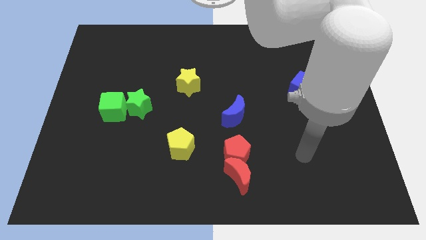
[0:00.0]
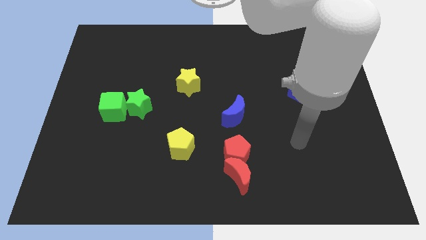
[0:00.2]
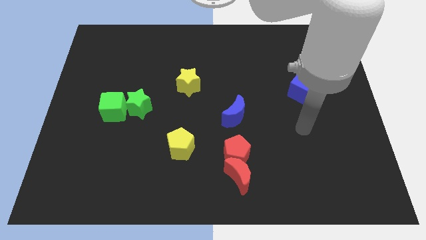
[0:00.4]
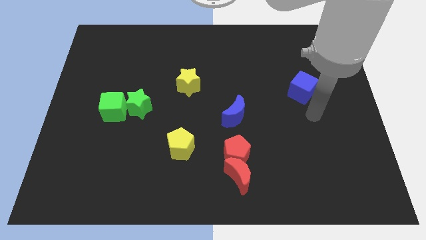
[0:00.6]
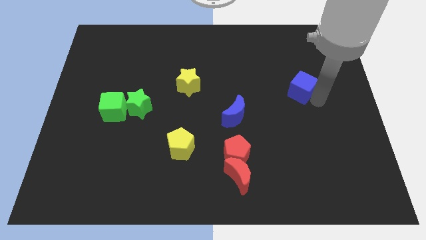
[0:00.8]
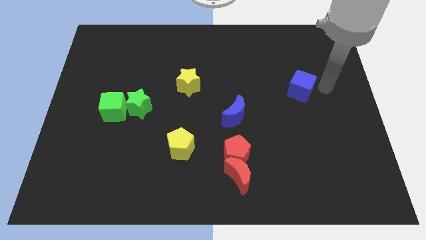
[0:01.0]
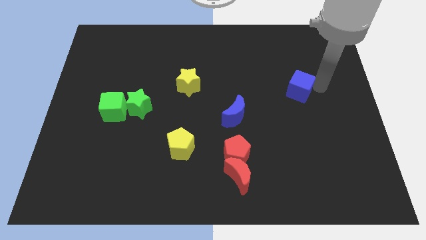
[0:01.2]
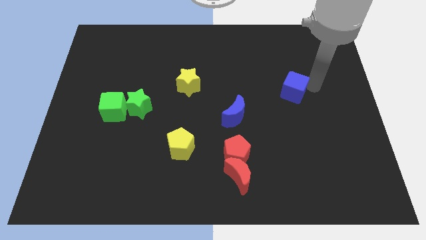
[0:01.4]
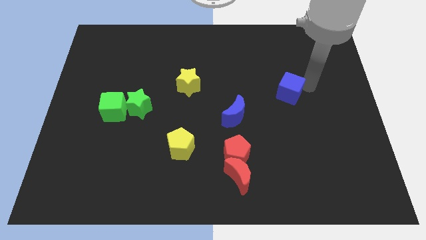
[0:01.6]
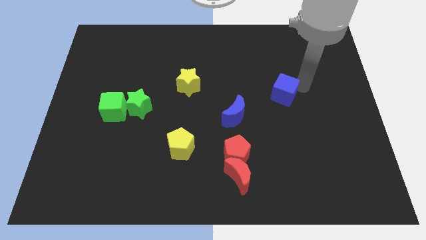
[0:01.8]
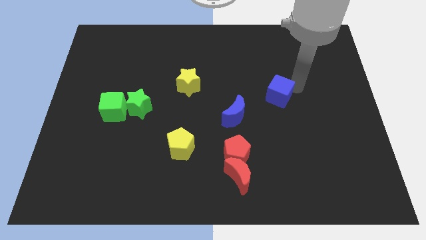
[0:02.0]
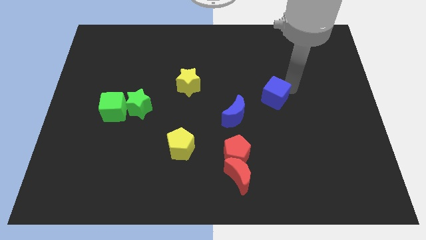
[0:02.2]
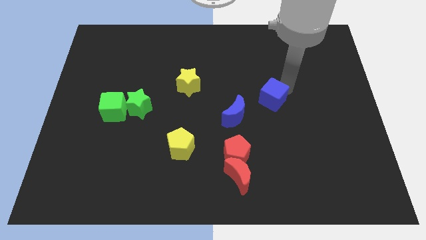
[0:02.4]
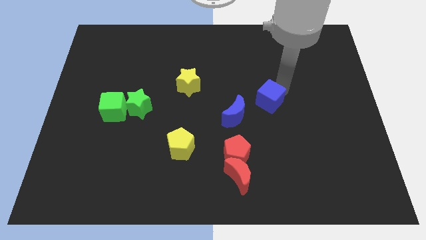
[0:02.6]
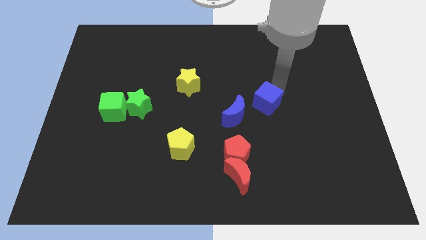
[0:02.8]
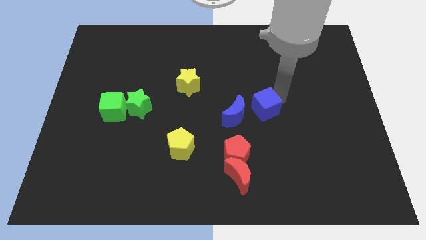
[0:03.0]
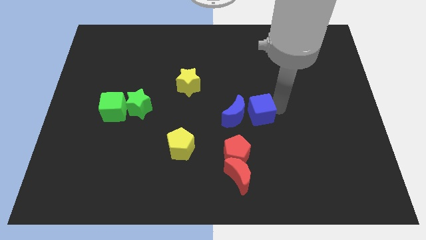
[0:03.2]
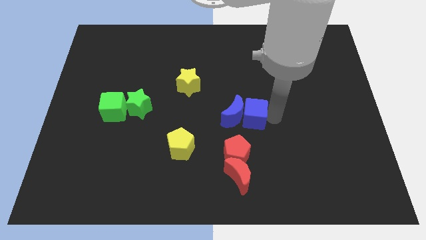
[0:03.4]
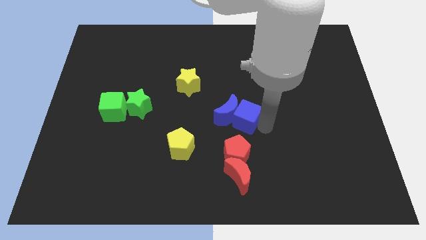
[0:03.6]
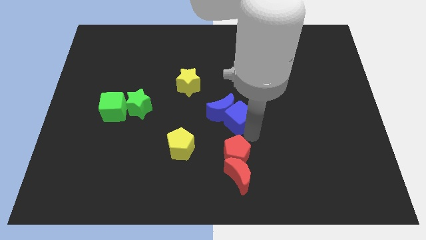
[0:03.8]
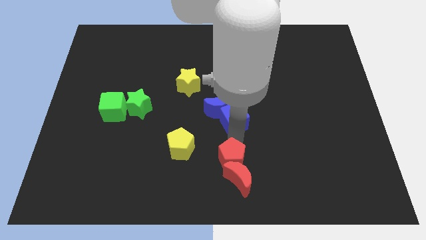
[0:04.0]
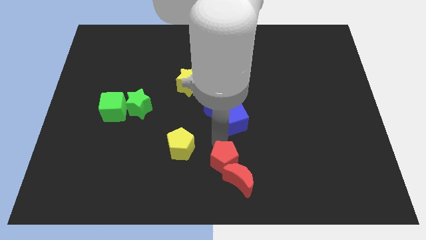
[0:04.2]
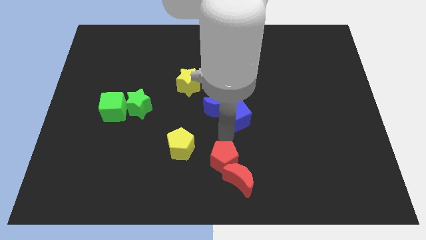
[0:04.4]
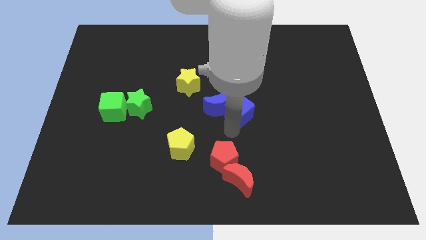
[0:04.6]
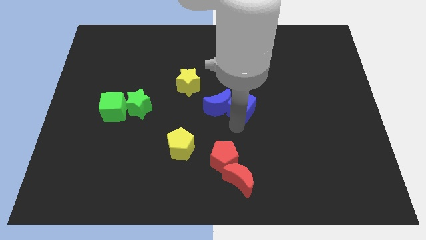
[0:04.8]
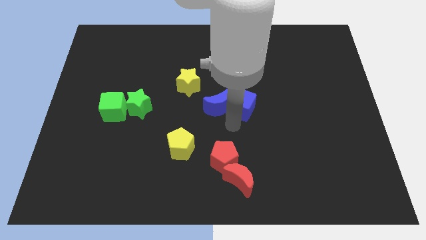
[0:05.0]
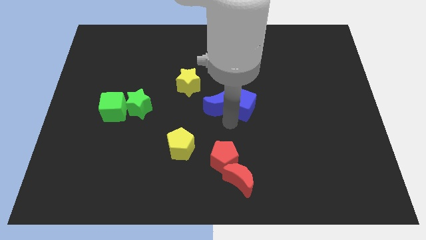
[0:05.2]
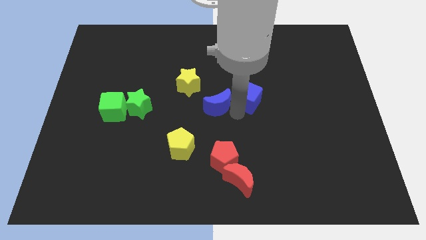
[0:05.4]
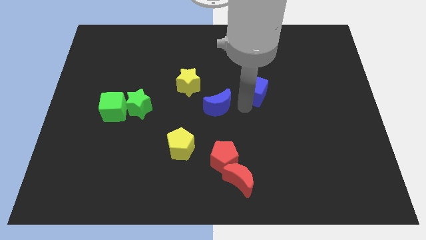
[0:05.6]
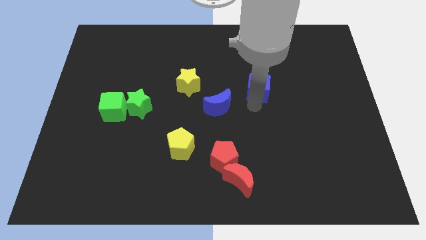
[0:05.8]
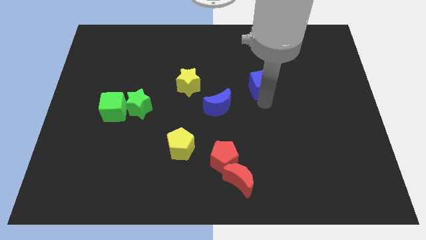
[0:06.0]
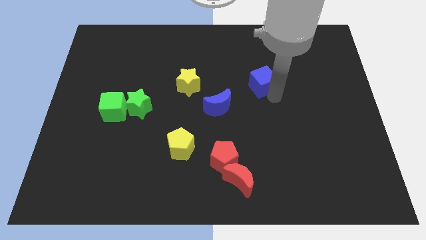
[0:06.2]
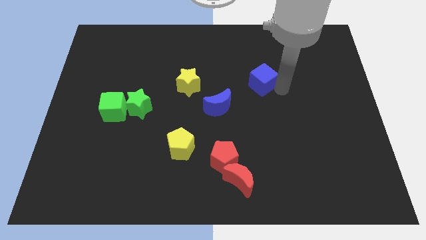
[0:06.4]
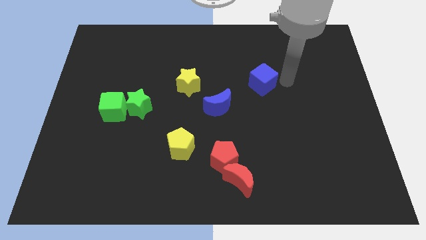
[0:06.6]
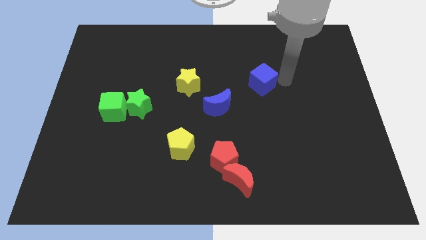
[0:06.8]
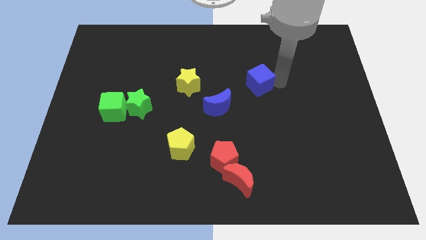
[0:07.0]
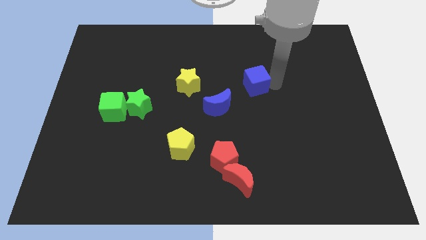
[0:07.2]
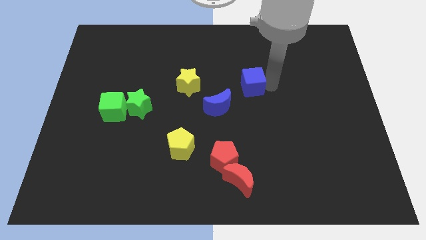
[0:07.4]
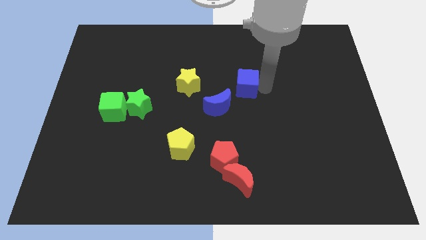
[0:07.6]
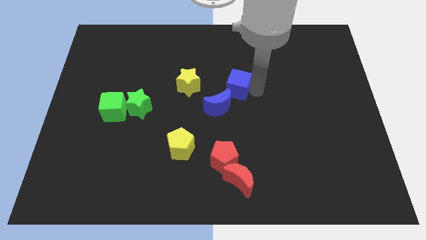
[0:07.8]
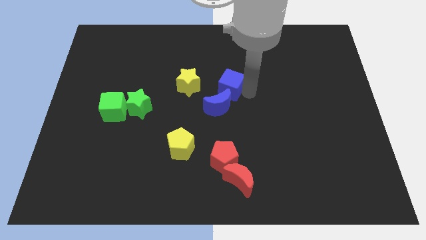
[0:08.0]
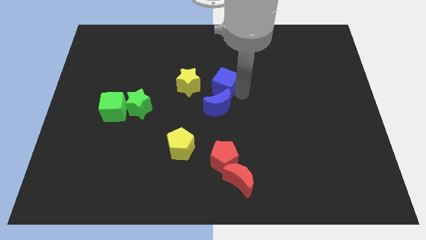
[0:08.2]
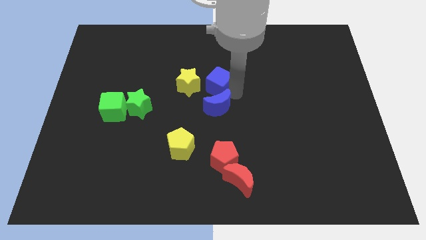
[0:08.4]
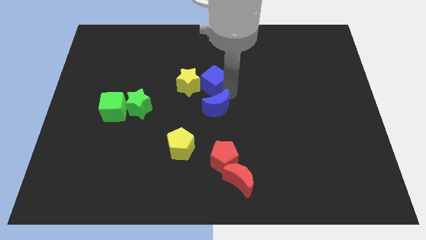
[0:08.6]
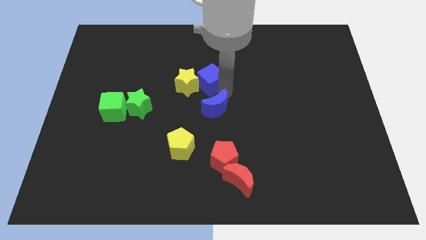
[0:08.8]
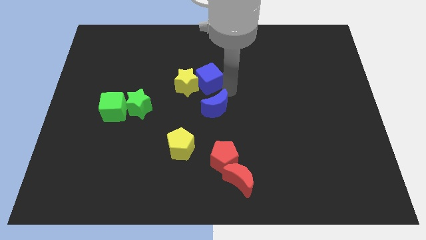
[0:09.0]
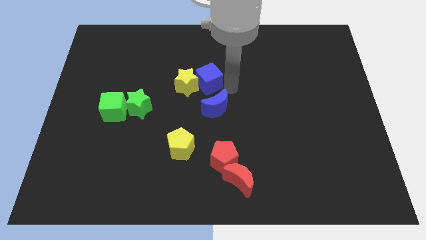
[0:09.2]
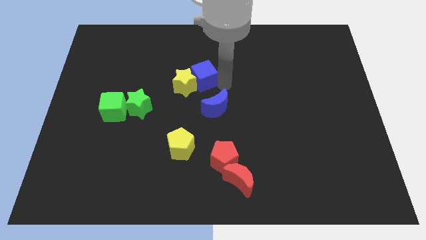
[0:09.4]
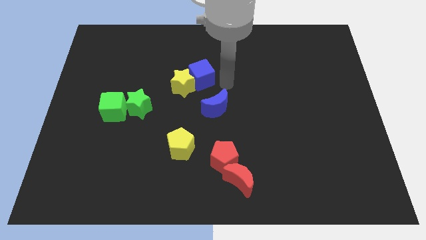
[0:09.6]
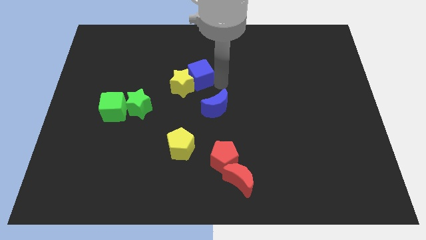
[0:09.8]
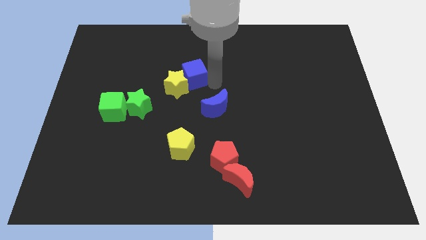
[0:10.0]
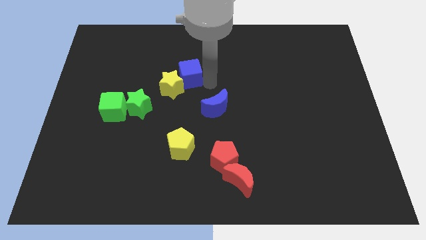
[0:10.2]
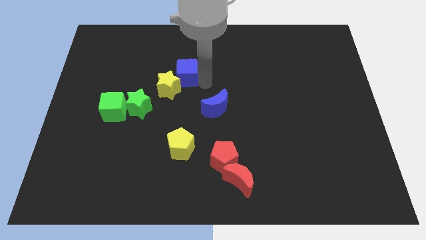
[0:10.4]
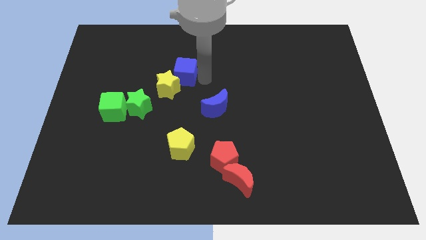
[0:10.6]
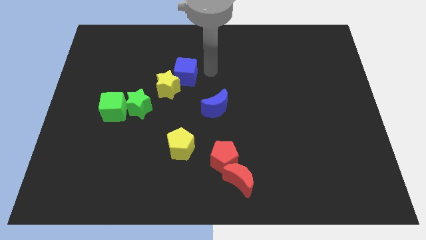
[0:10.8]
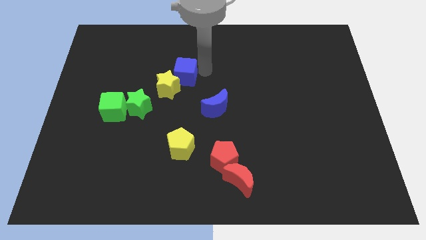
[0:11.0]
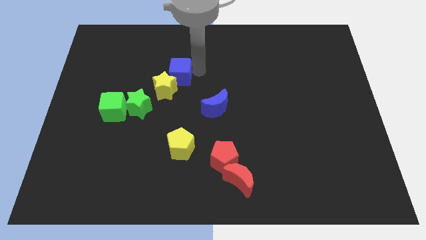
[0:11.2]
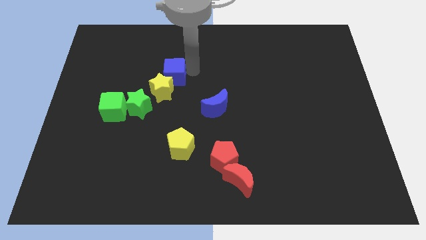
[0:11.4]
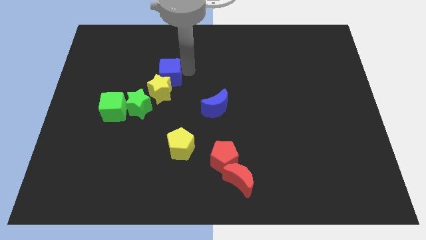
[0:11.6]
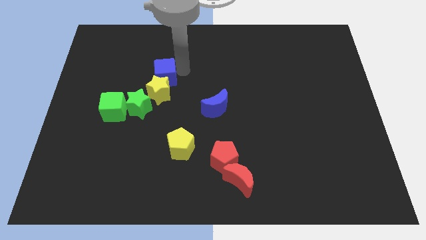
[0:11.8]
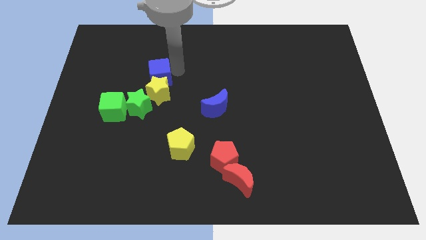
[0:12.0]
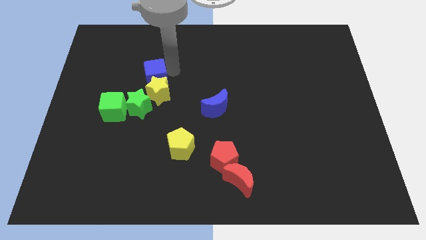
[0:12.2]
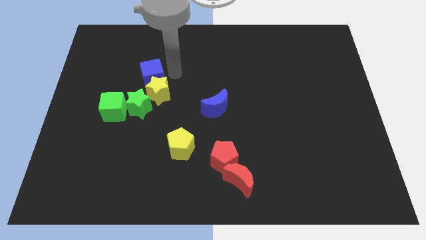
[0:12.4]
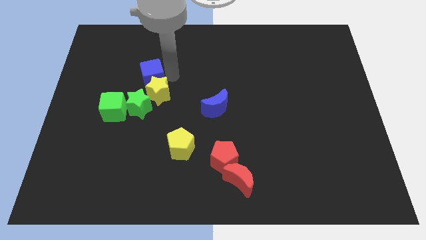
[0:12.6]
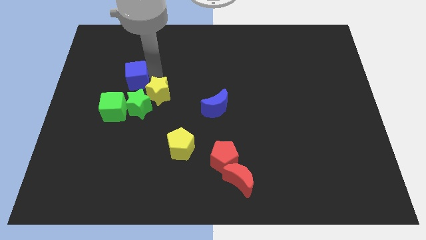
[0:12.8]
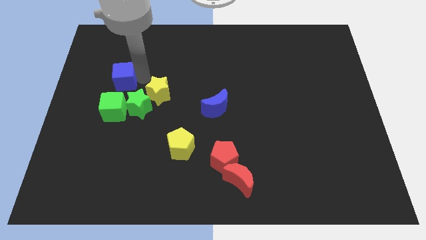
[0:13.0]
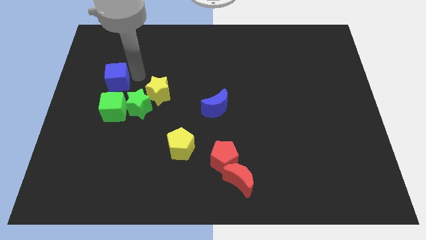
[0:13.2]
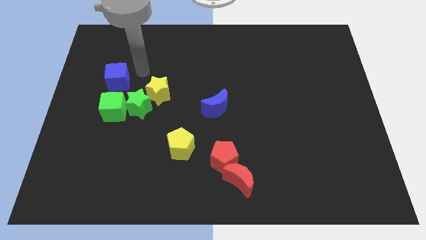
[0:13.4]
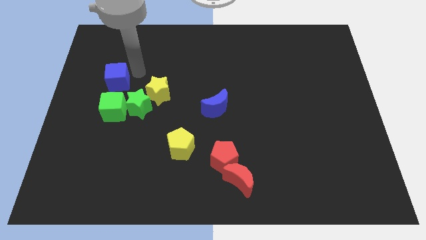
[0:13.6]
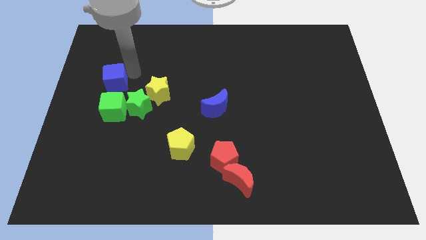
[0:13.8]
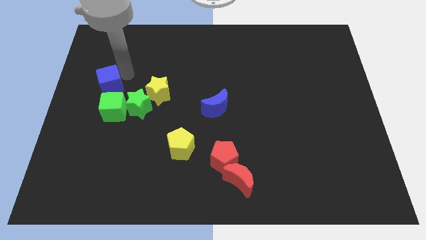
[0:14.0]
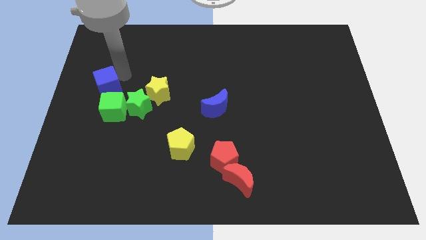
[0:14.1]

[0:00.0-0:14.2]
push the blue cube to the left side
